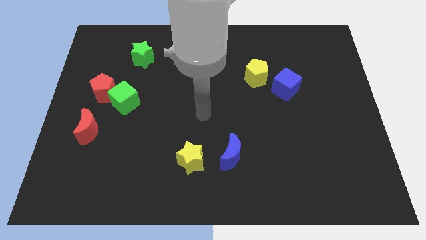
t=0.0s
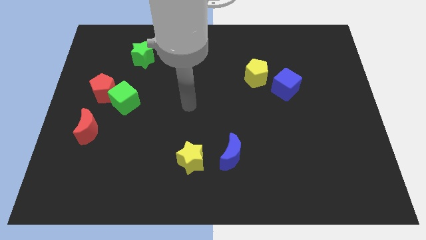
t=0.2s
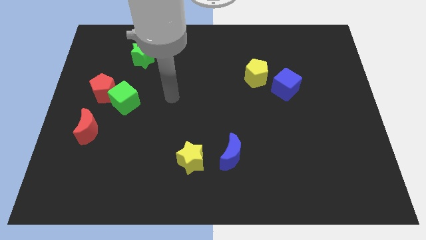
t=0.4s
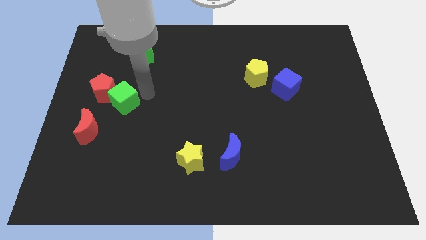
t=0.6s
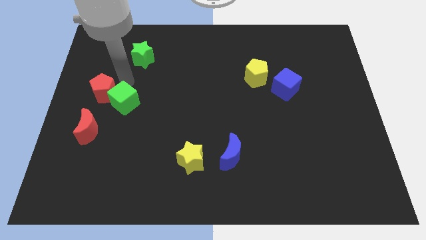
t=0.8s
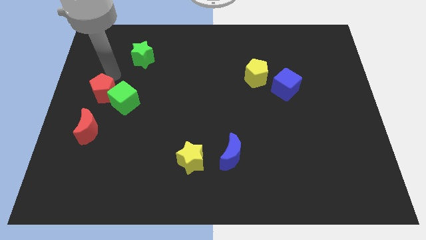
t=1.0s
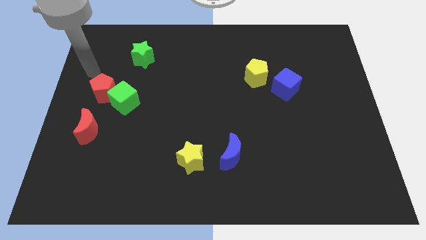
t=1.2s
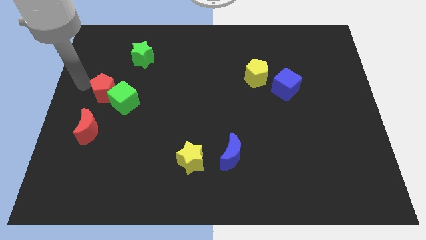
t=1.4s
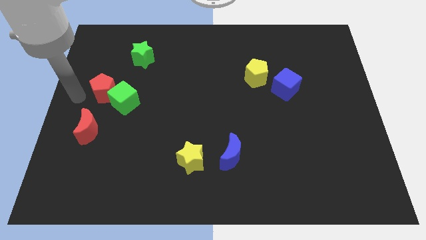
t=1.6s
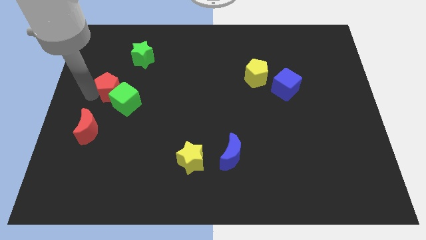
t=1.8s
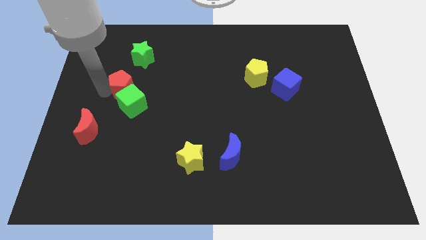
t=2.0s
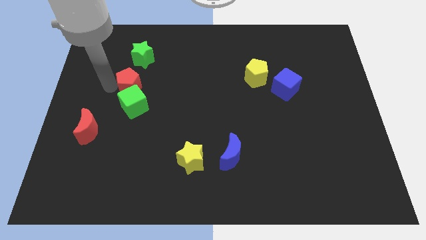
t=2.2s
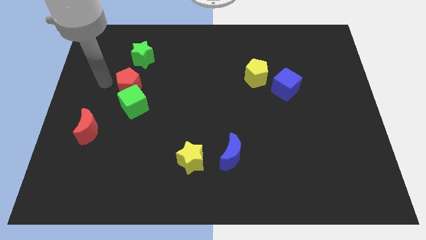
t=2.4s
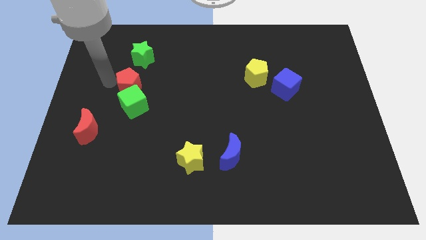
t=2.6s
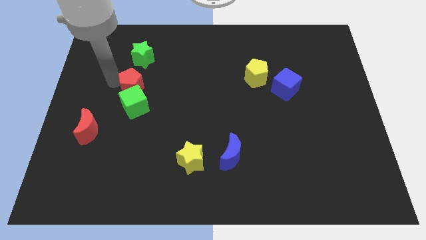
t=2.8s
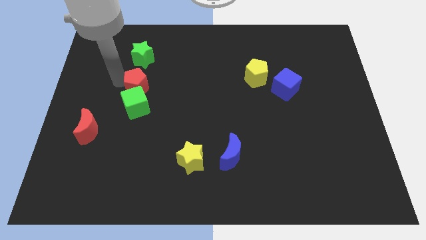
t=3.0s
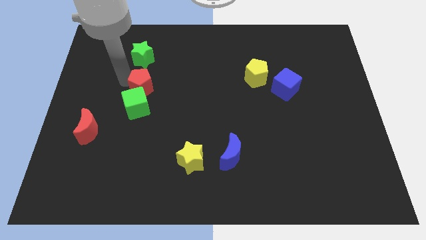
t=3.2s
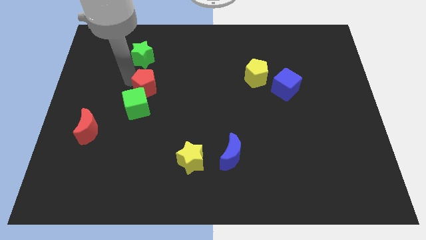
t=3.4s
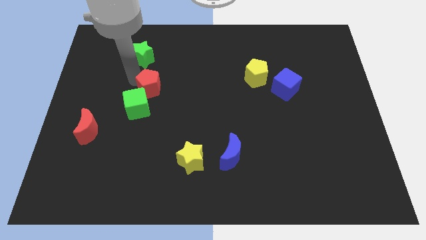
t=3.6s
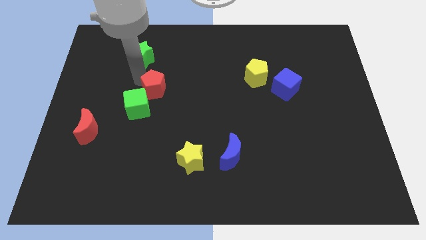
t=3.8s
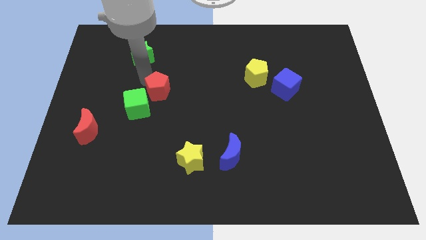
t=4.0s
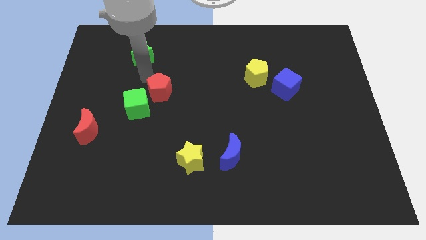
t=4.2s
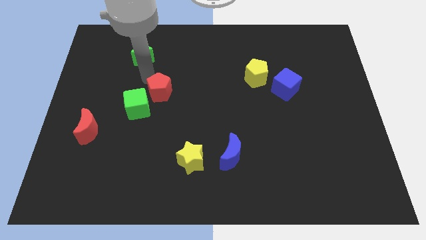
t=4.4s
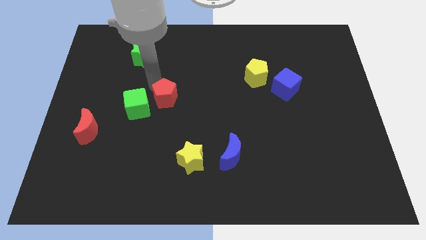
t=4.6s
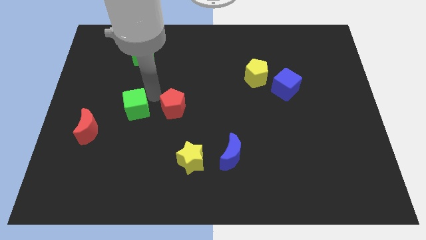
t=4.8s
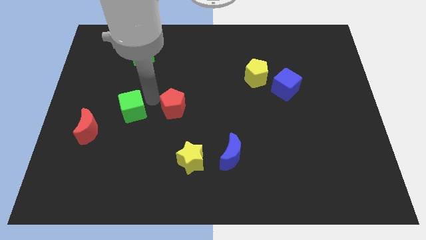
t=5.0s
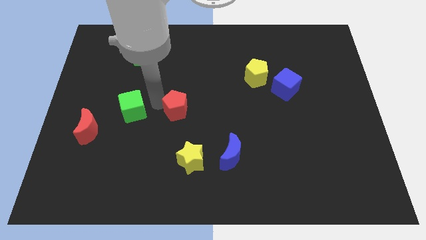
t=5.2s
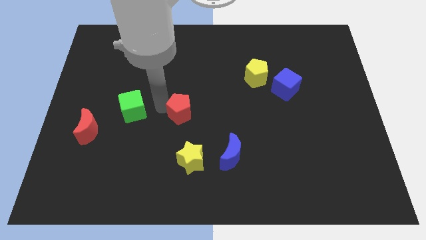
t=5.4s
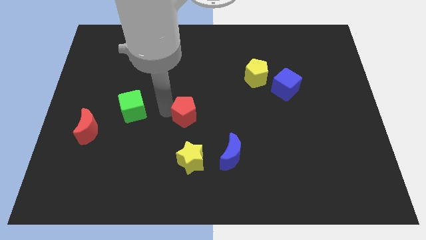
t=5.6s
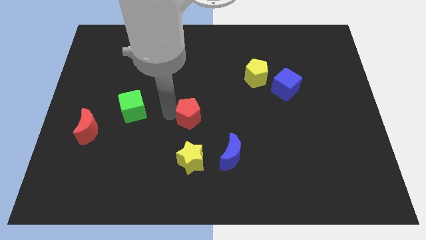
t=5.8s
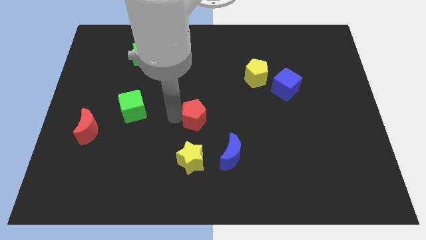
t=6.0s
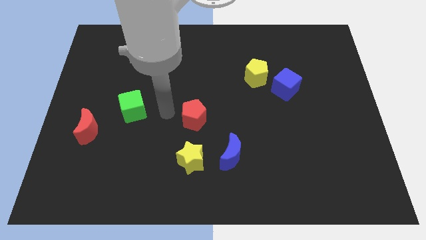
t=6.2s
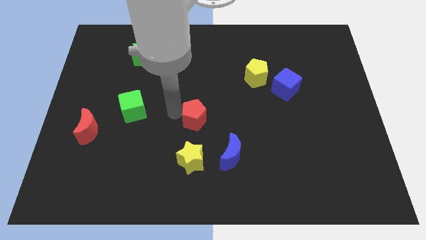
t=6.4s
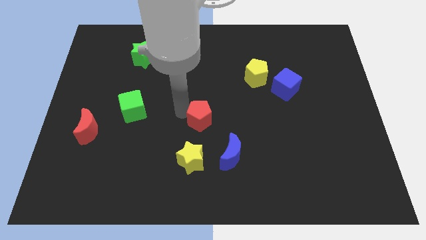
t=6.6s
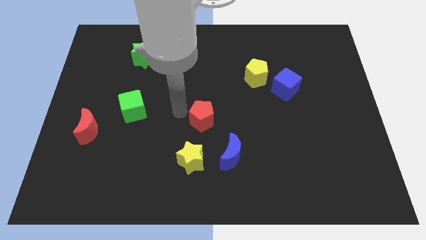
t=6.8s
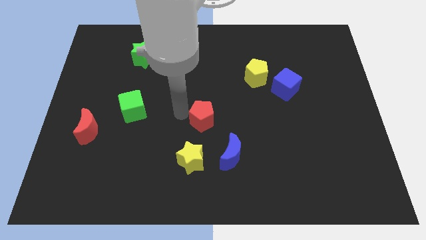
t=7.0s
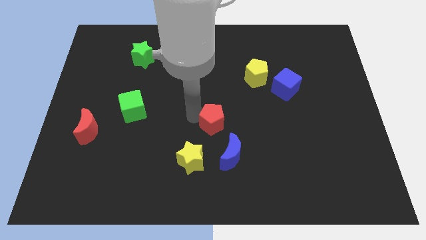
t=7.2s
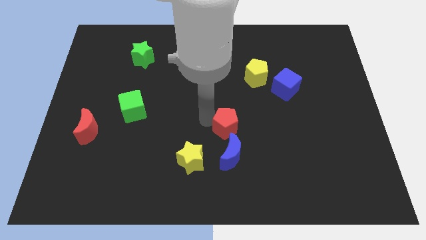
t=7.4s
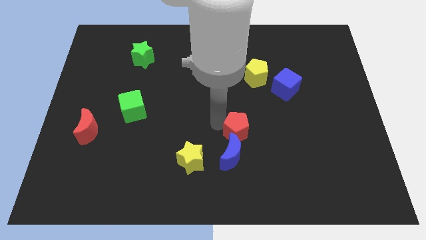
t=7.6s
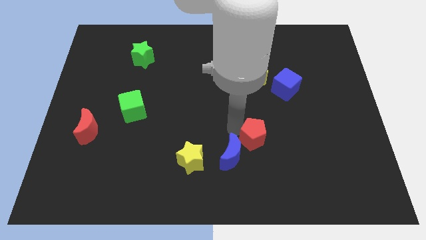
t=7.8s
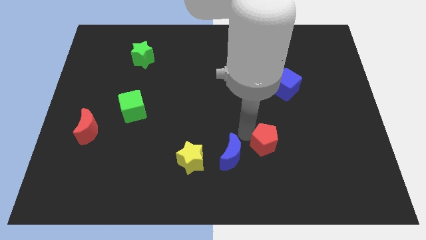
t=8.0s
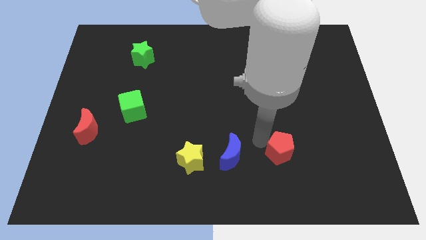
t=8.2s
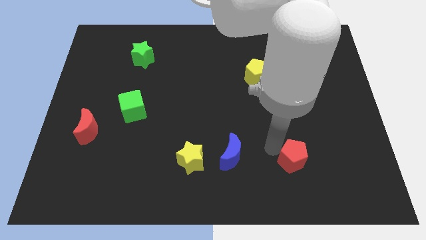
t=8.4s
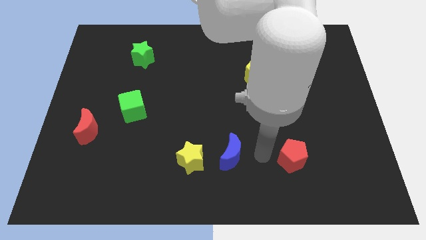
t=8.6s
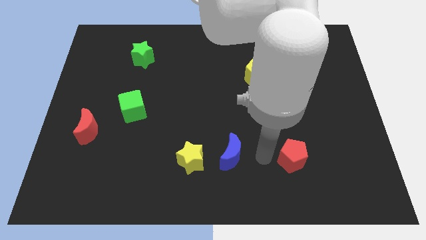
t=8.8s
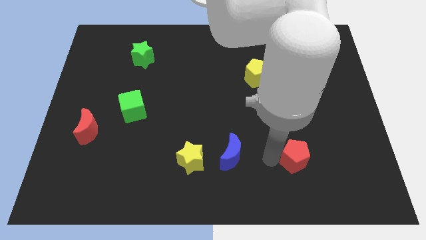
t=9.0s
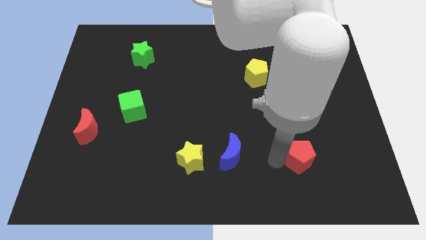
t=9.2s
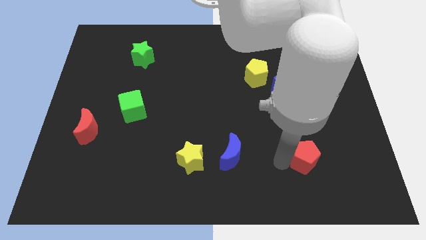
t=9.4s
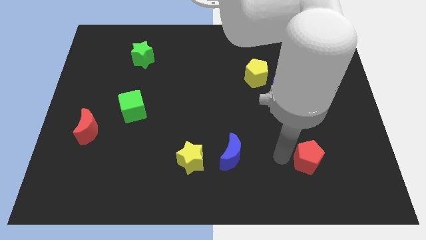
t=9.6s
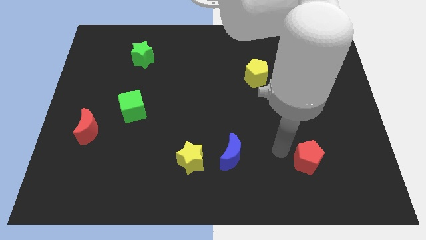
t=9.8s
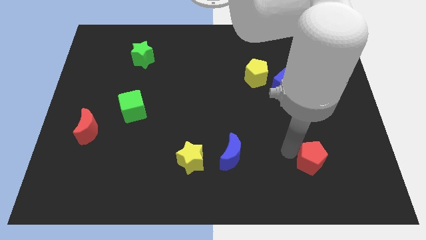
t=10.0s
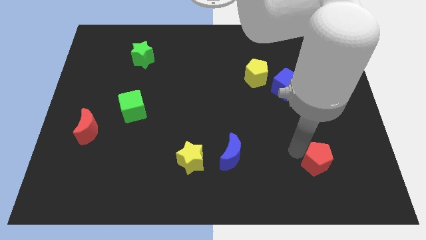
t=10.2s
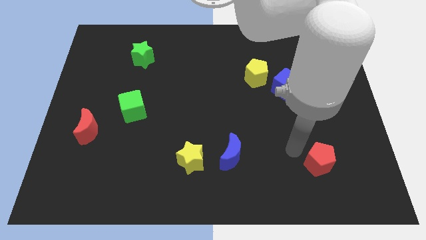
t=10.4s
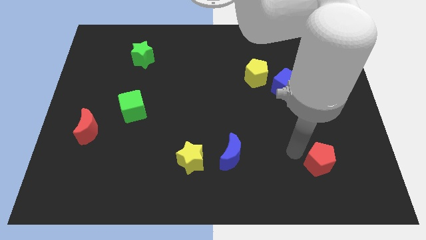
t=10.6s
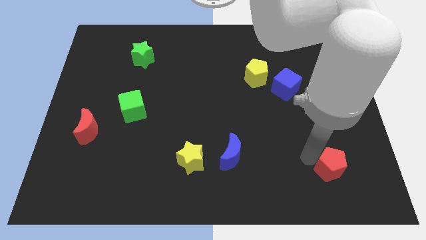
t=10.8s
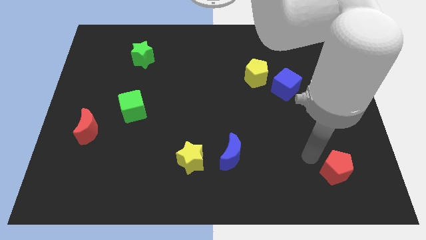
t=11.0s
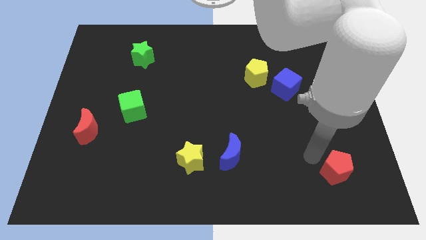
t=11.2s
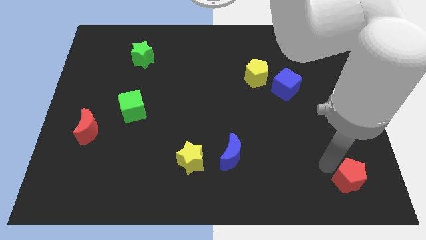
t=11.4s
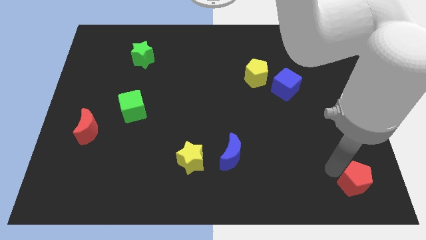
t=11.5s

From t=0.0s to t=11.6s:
put the red pentagon to the bottom right of the board
